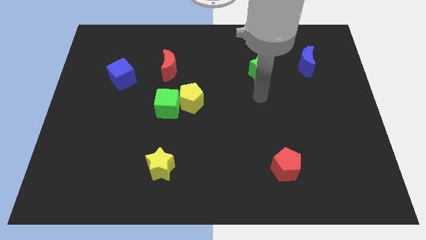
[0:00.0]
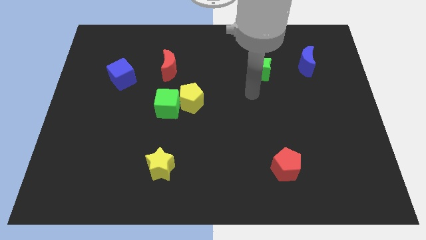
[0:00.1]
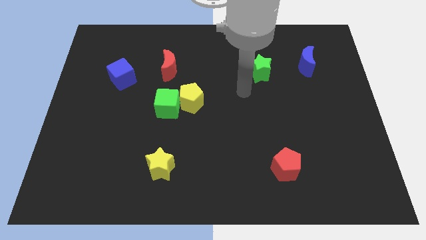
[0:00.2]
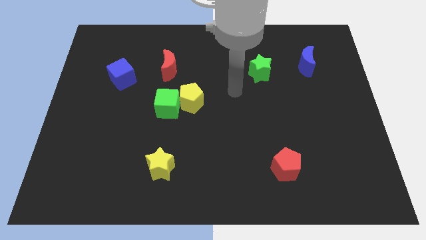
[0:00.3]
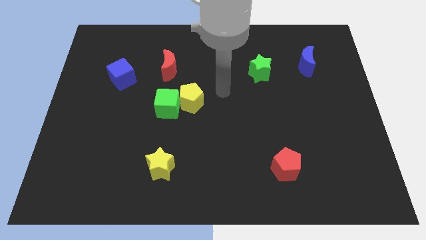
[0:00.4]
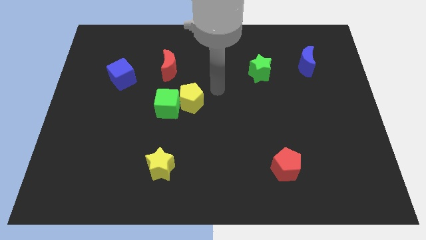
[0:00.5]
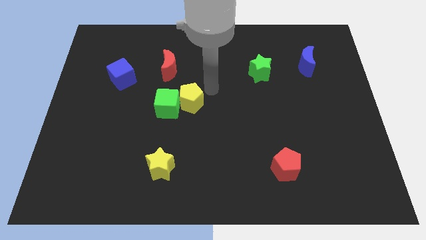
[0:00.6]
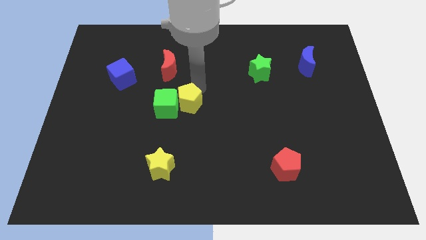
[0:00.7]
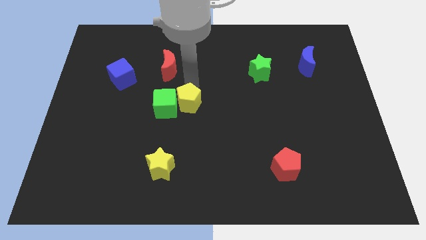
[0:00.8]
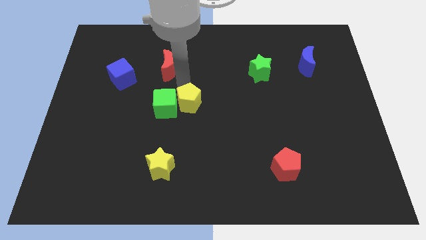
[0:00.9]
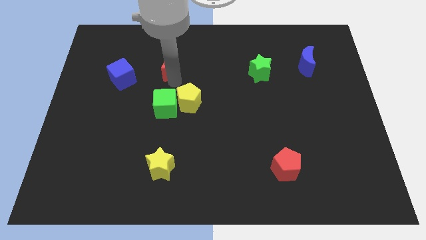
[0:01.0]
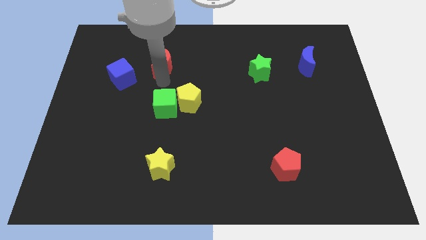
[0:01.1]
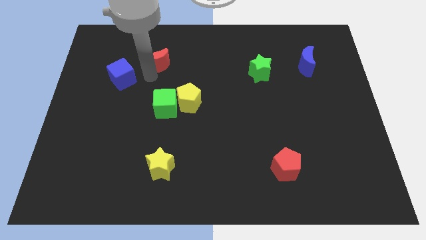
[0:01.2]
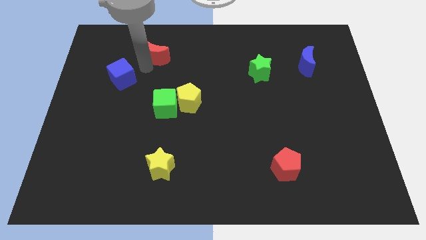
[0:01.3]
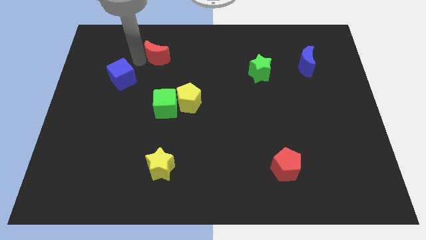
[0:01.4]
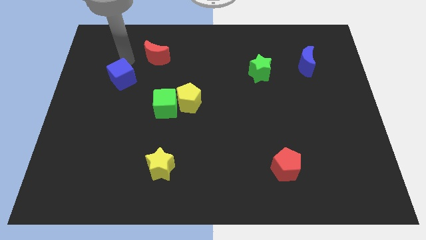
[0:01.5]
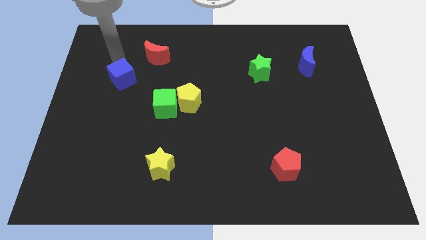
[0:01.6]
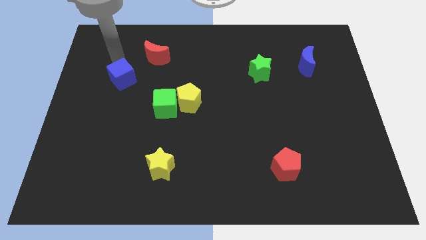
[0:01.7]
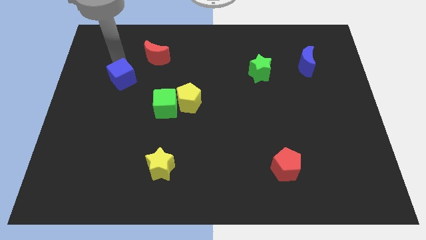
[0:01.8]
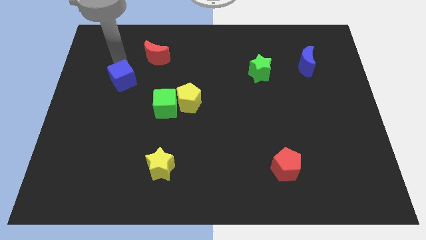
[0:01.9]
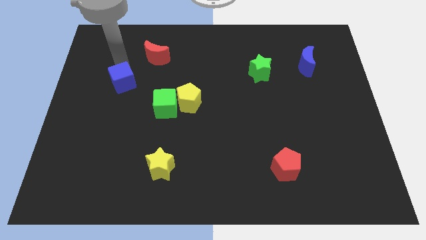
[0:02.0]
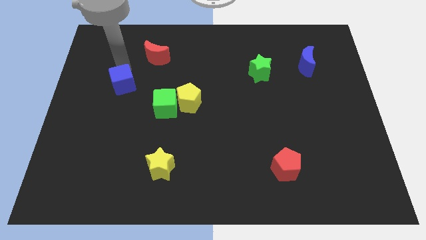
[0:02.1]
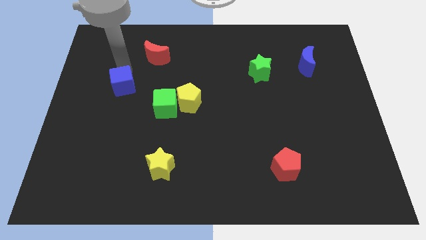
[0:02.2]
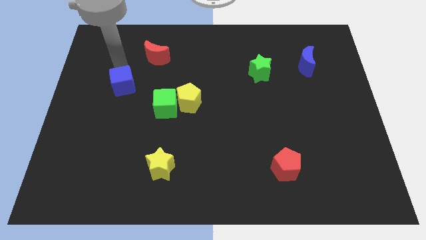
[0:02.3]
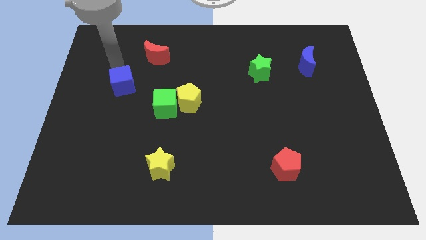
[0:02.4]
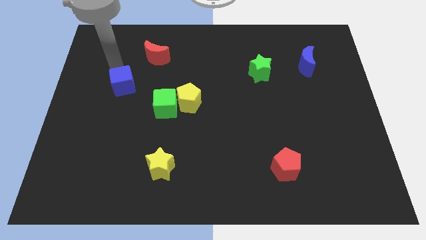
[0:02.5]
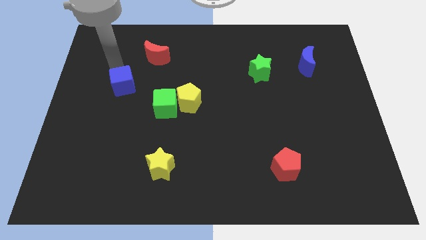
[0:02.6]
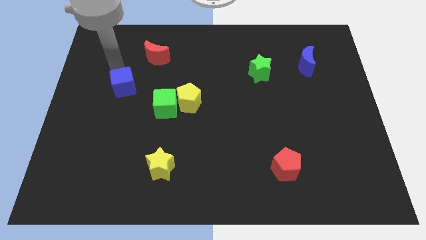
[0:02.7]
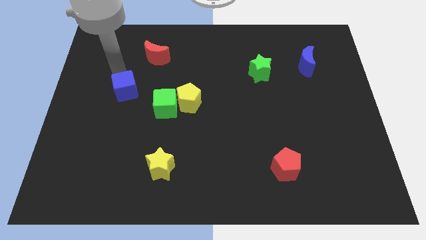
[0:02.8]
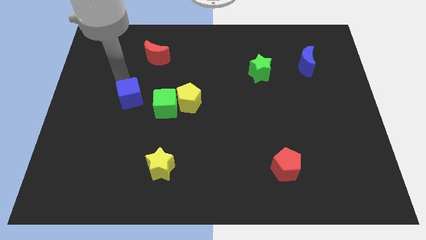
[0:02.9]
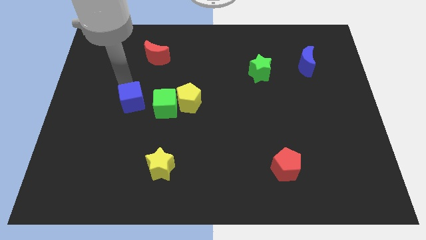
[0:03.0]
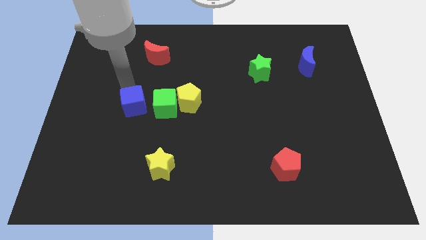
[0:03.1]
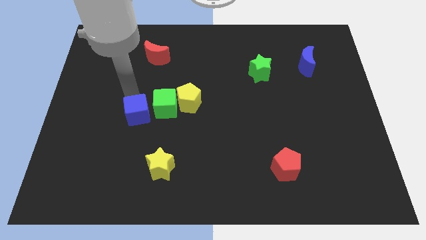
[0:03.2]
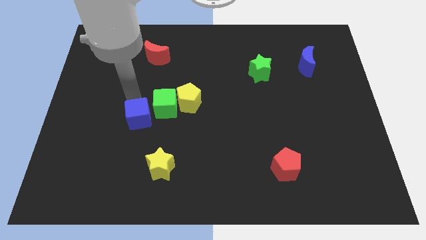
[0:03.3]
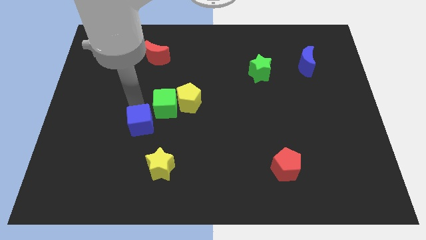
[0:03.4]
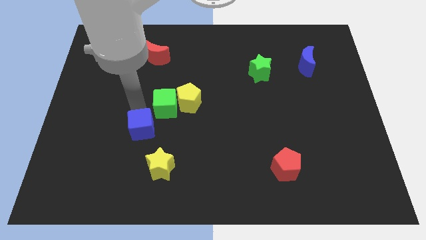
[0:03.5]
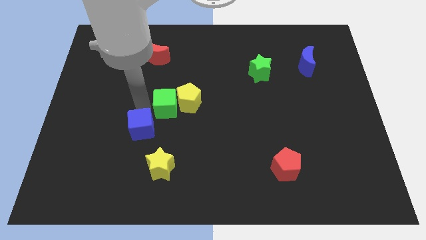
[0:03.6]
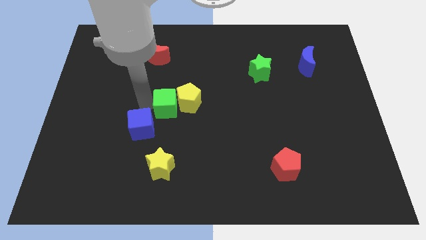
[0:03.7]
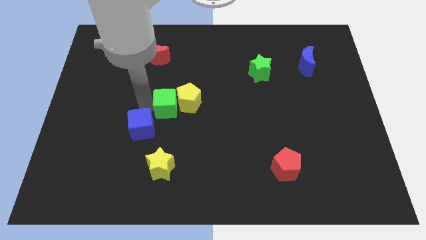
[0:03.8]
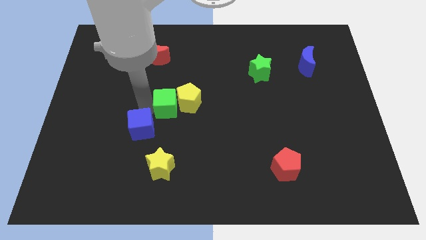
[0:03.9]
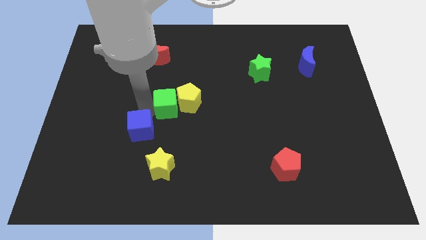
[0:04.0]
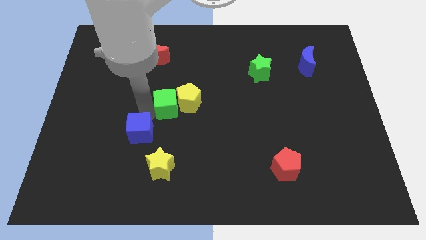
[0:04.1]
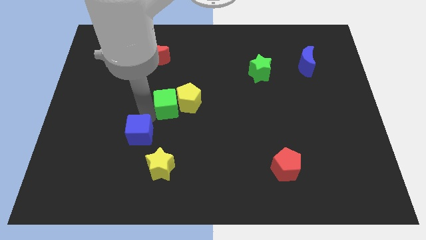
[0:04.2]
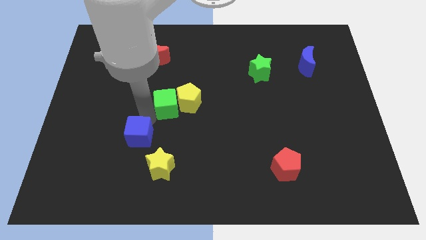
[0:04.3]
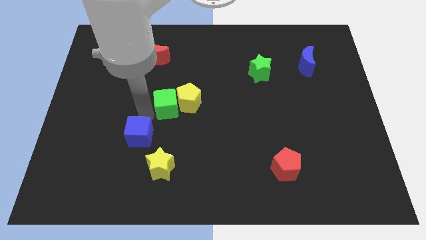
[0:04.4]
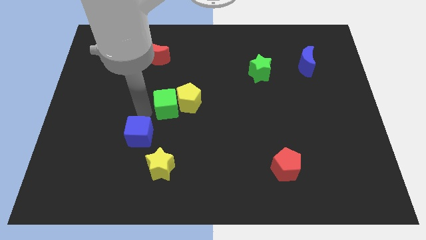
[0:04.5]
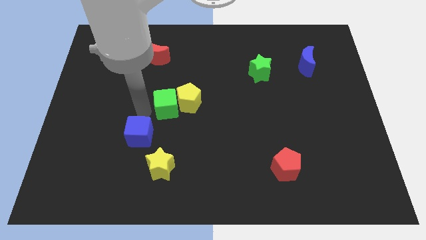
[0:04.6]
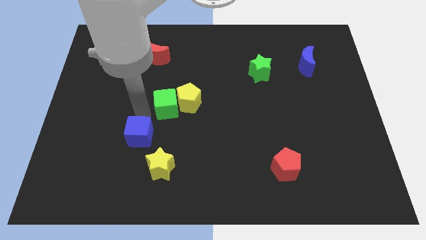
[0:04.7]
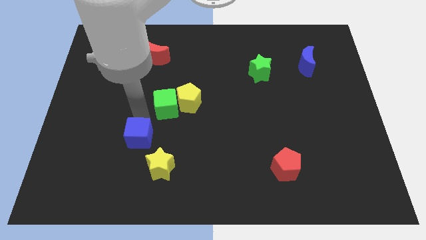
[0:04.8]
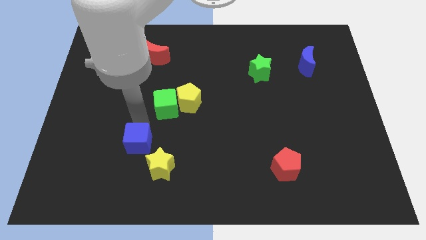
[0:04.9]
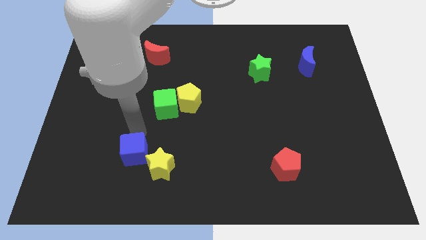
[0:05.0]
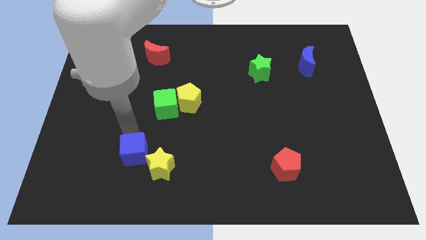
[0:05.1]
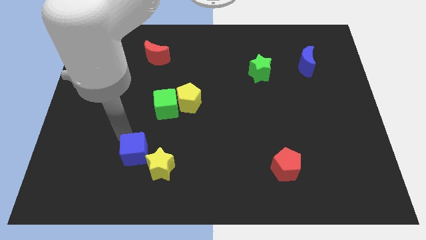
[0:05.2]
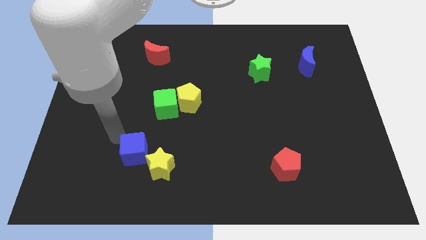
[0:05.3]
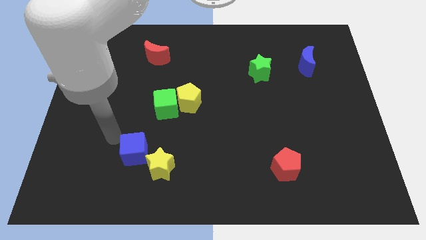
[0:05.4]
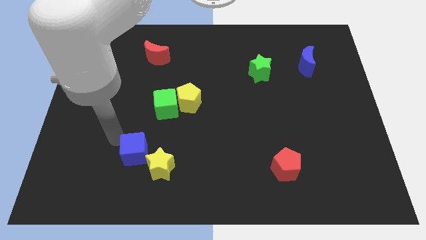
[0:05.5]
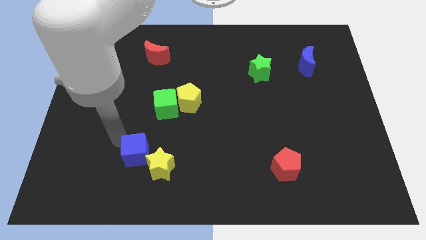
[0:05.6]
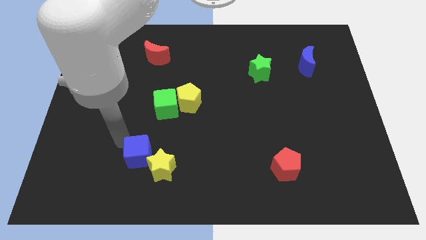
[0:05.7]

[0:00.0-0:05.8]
push the blue cube close to the yellow star

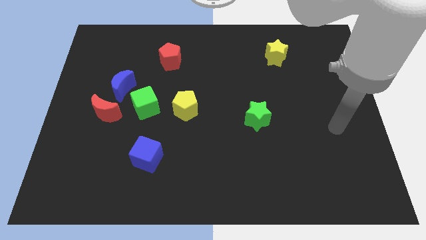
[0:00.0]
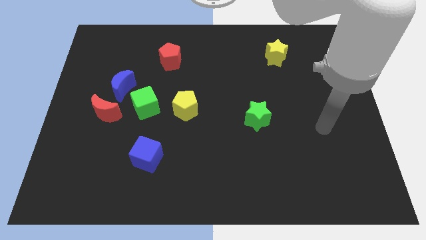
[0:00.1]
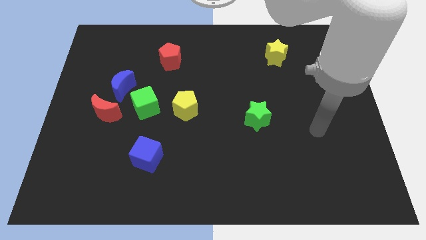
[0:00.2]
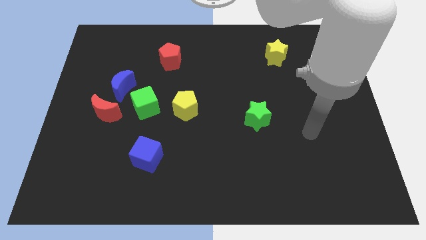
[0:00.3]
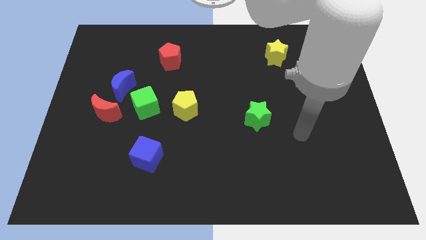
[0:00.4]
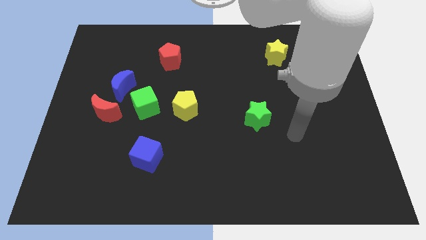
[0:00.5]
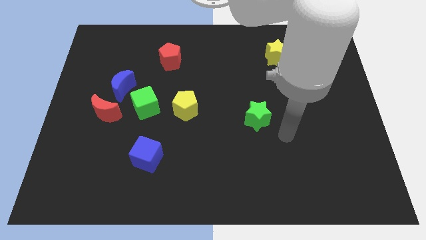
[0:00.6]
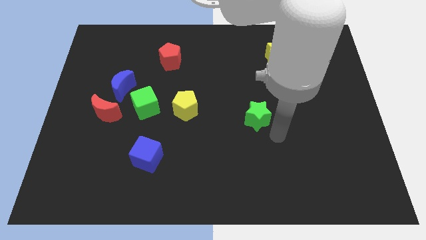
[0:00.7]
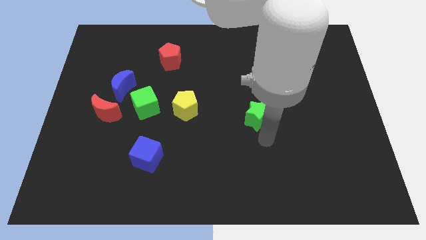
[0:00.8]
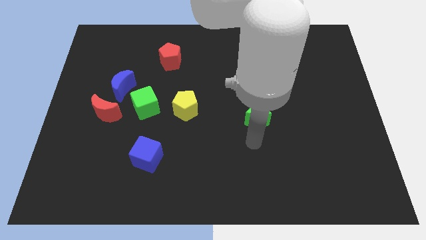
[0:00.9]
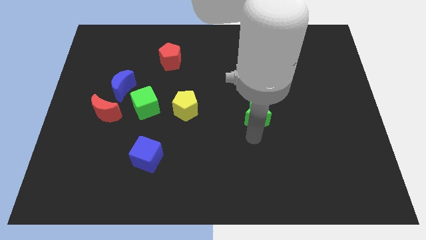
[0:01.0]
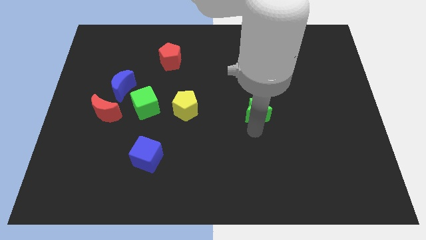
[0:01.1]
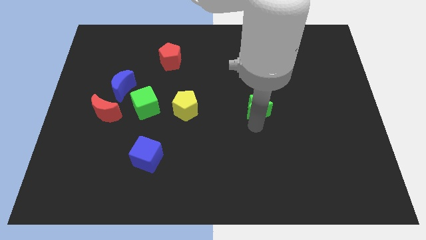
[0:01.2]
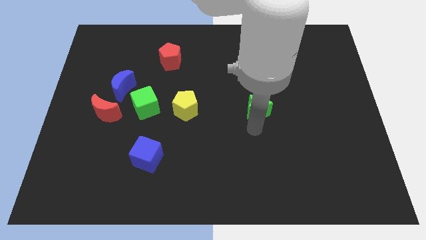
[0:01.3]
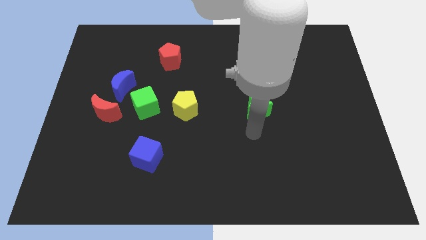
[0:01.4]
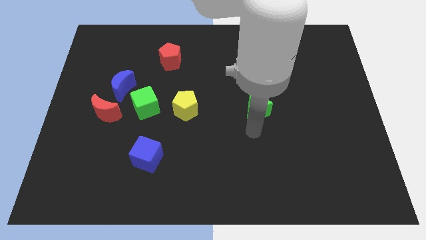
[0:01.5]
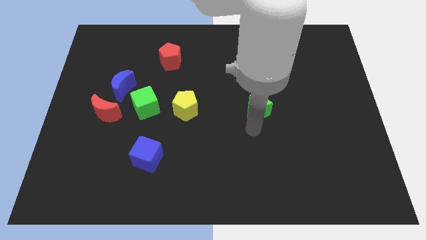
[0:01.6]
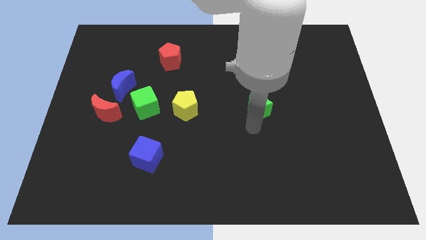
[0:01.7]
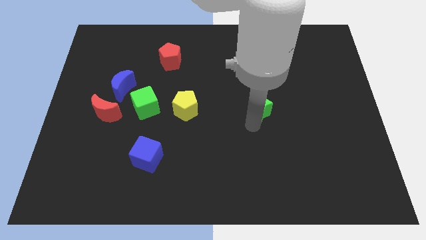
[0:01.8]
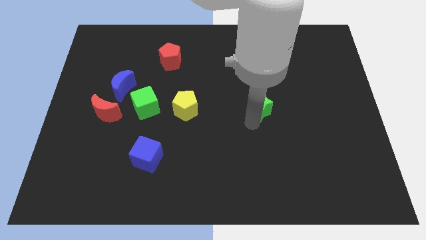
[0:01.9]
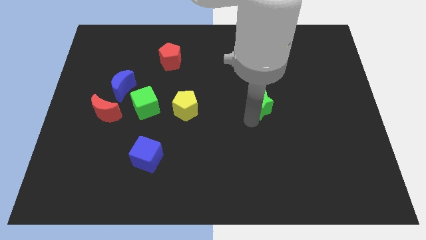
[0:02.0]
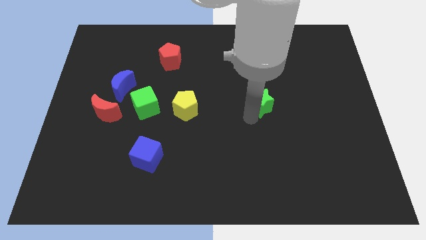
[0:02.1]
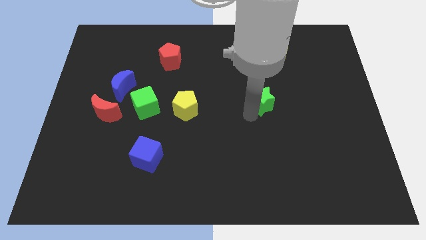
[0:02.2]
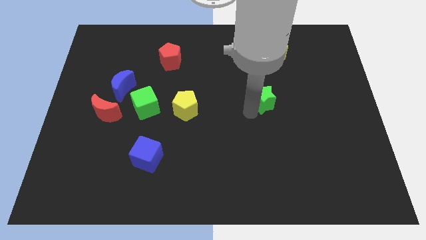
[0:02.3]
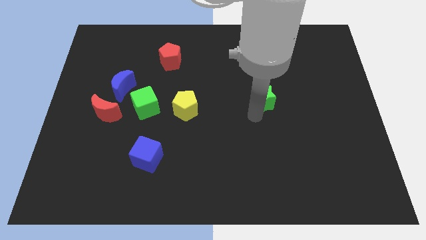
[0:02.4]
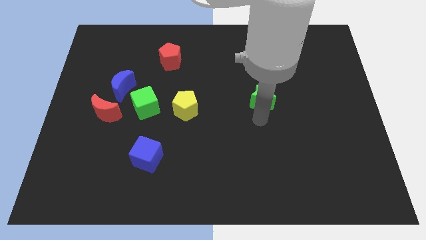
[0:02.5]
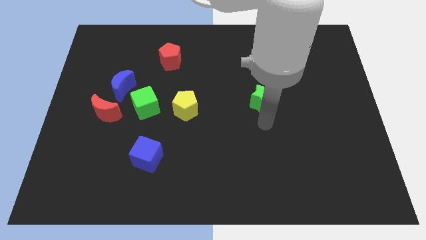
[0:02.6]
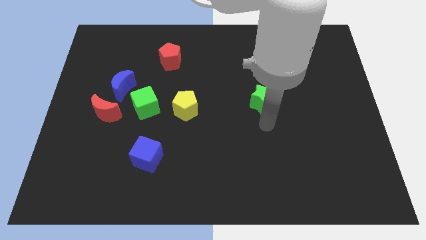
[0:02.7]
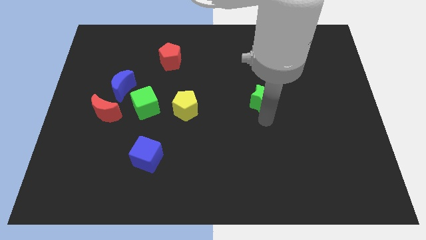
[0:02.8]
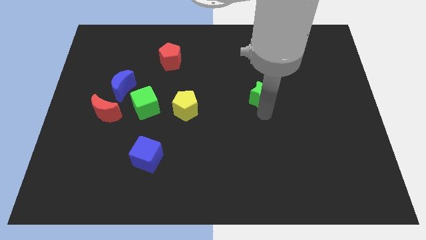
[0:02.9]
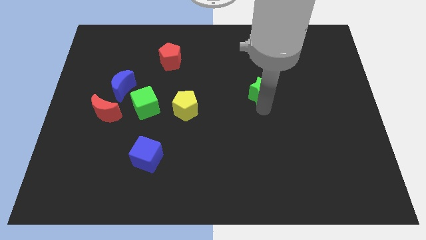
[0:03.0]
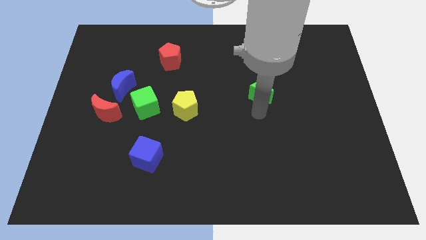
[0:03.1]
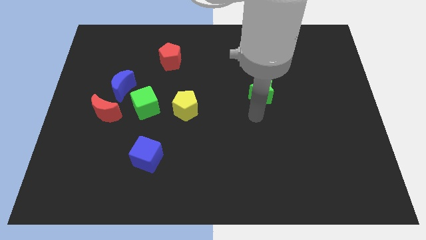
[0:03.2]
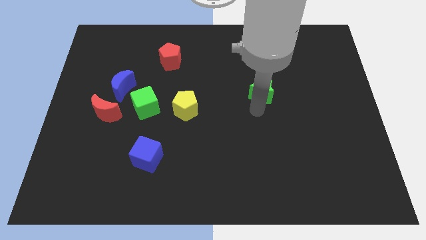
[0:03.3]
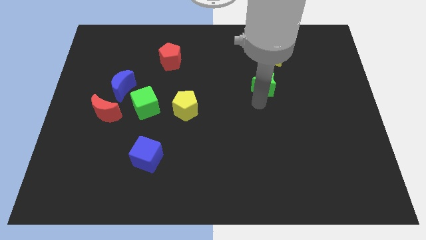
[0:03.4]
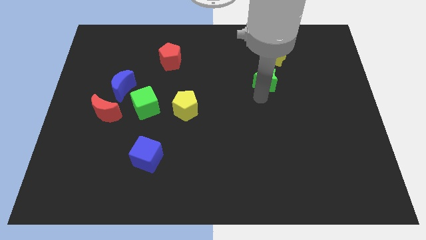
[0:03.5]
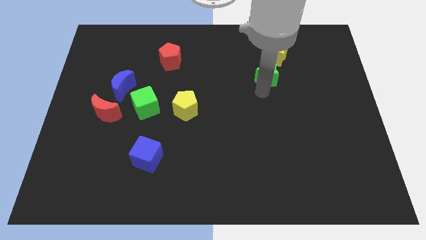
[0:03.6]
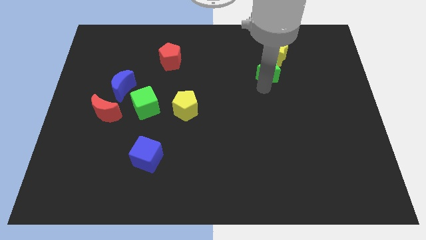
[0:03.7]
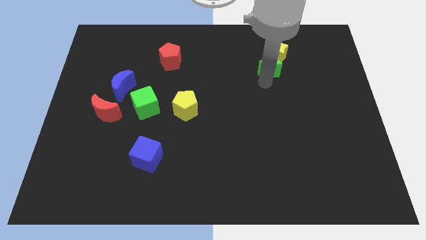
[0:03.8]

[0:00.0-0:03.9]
put the green star close to the yellow star
